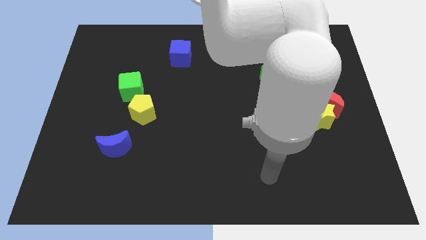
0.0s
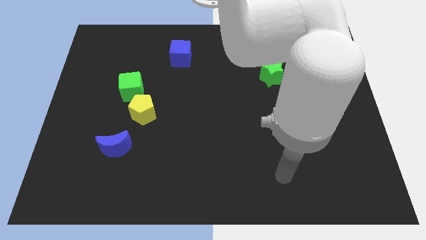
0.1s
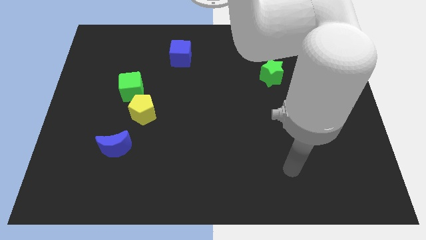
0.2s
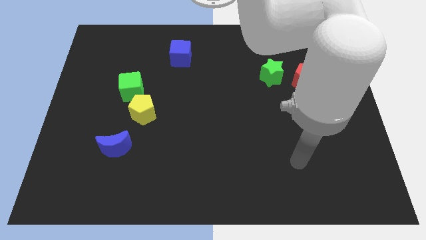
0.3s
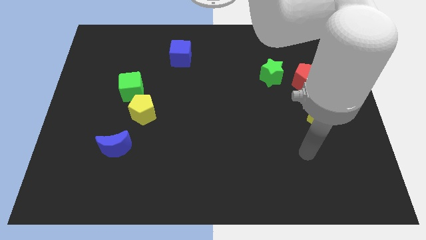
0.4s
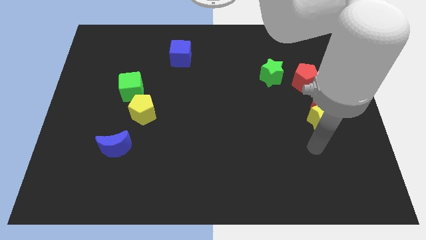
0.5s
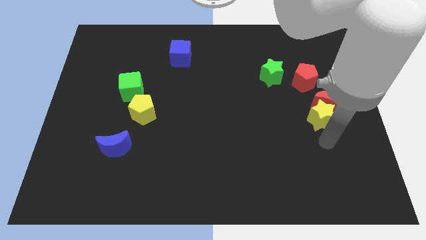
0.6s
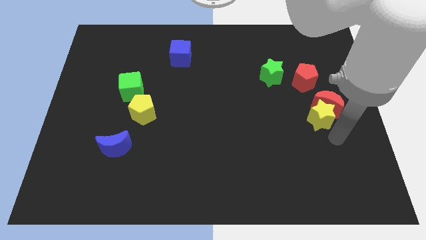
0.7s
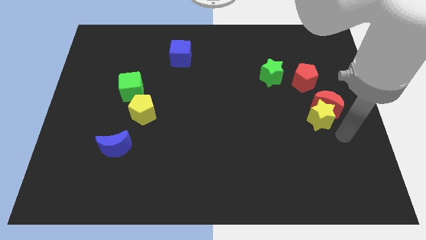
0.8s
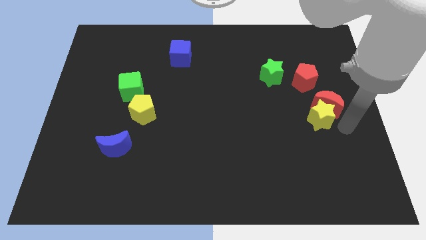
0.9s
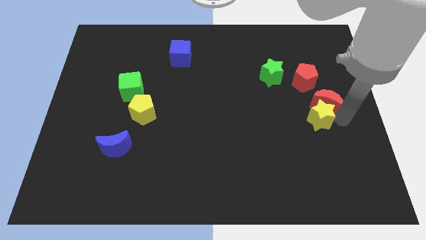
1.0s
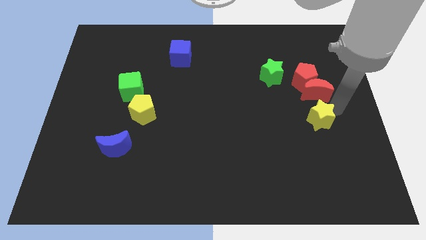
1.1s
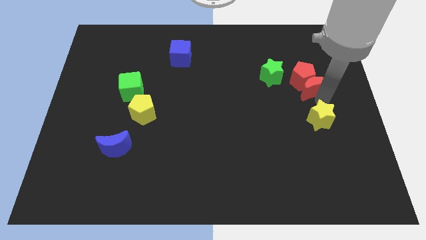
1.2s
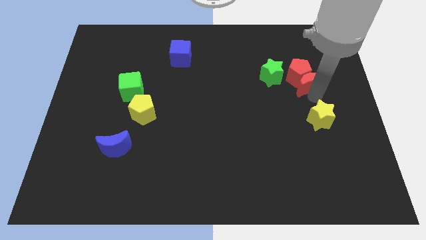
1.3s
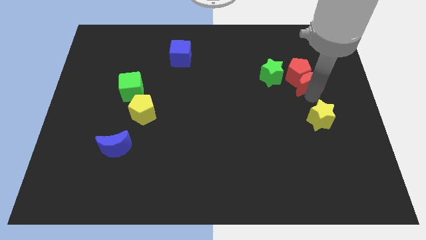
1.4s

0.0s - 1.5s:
pull the yellow star apart from the red moon

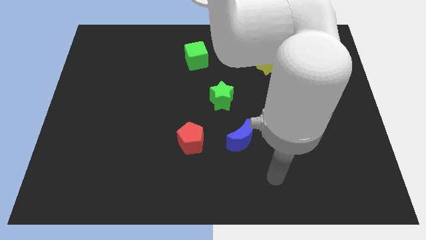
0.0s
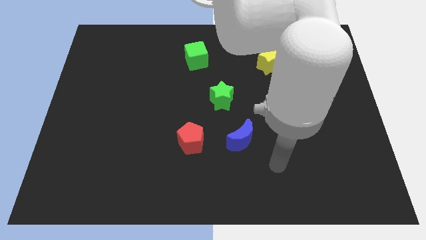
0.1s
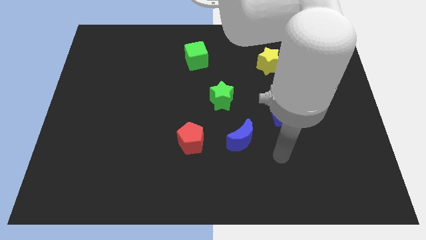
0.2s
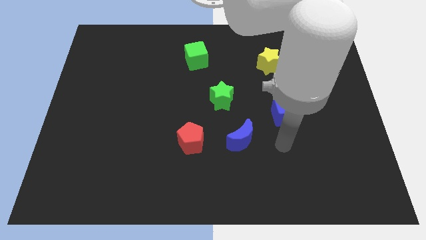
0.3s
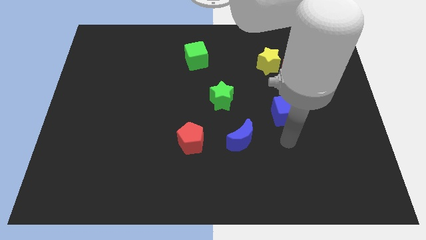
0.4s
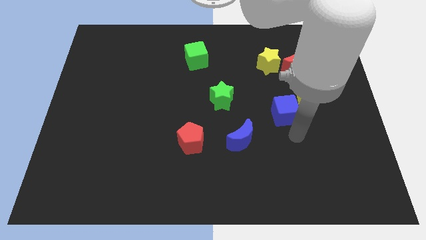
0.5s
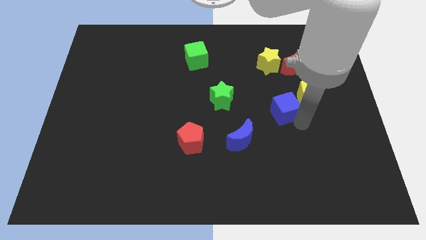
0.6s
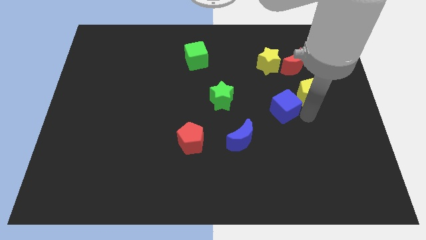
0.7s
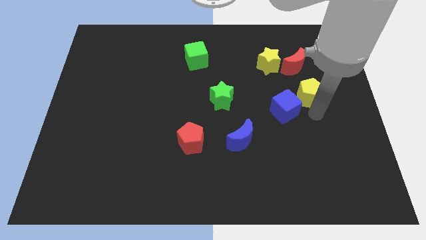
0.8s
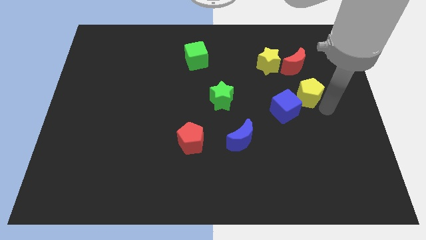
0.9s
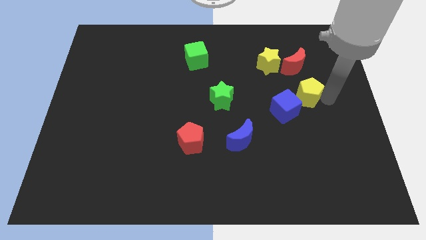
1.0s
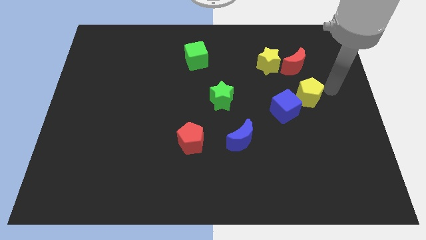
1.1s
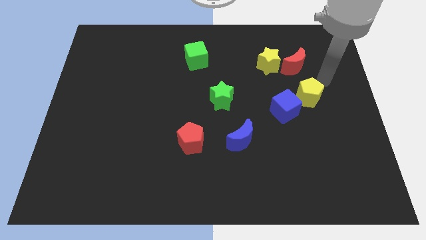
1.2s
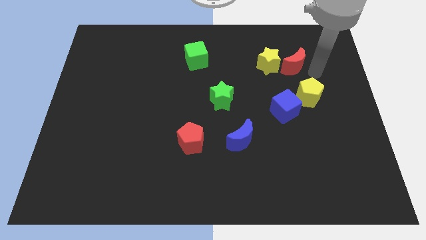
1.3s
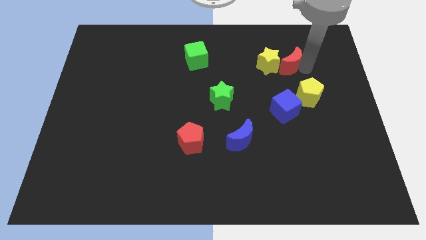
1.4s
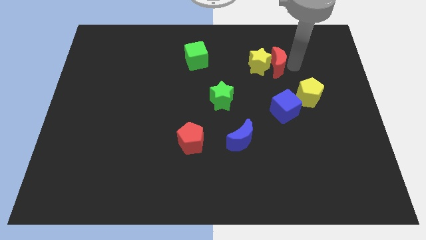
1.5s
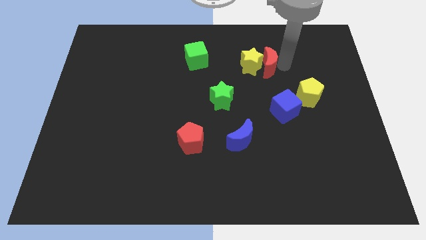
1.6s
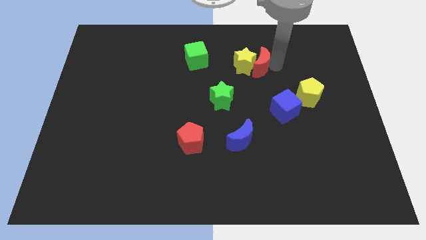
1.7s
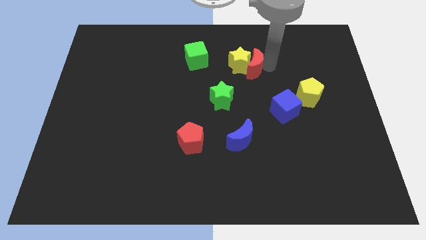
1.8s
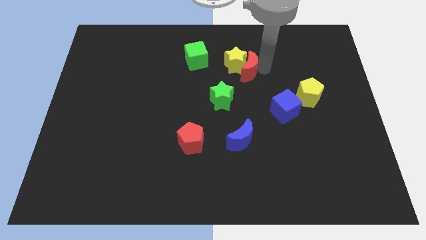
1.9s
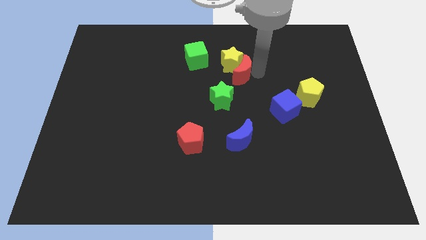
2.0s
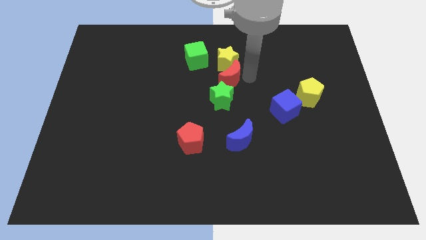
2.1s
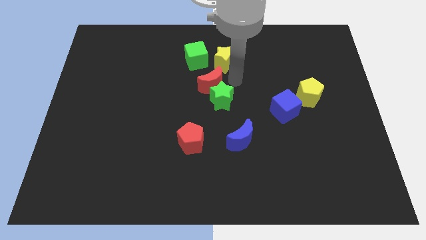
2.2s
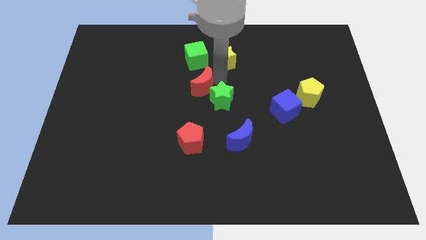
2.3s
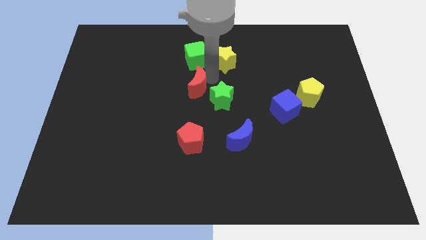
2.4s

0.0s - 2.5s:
move the yellow star away from the red moon

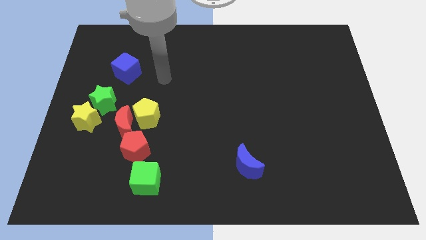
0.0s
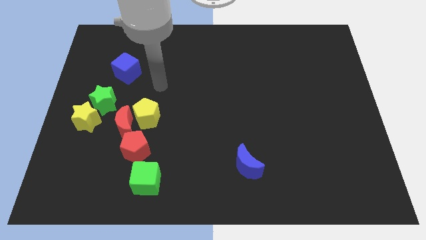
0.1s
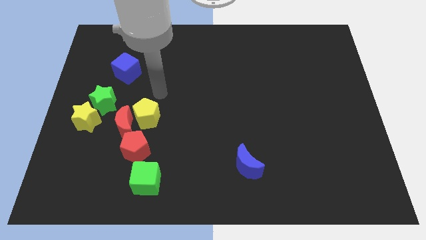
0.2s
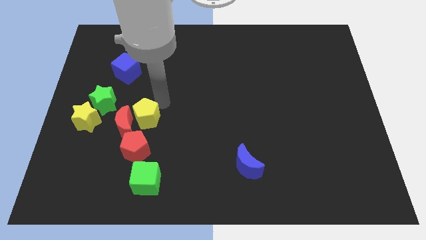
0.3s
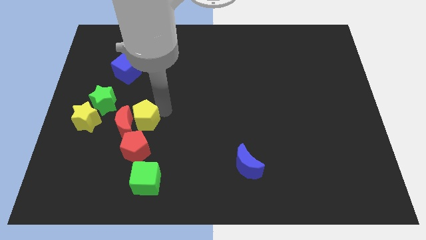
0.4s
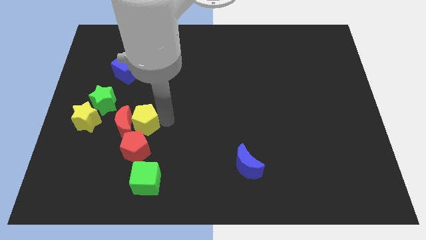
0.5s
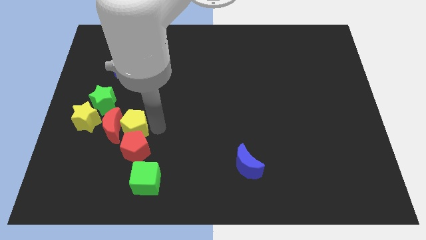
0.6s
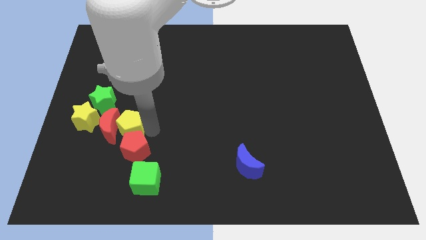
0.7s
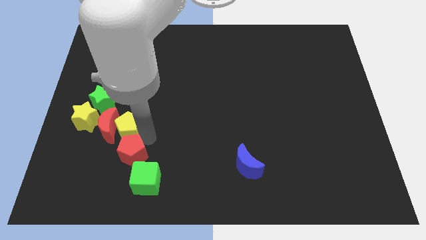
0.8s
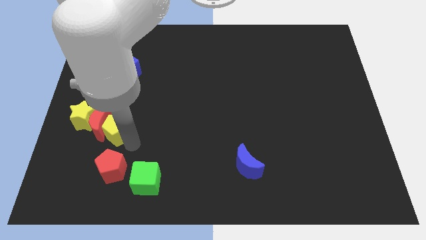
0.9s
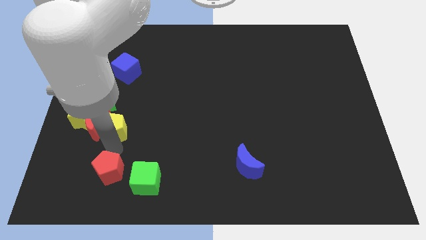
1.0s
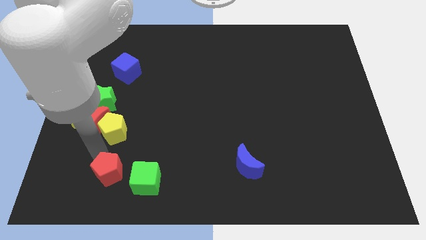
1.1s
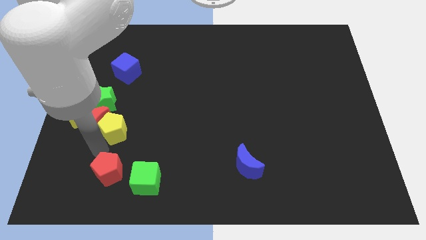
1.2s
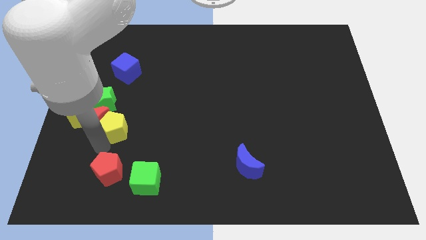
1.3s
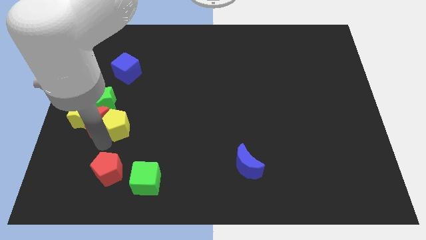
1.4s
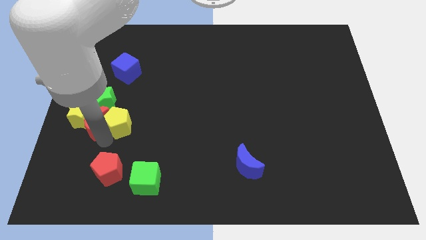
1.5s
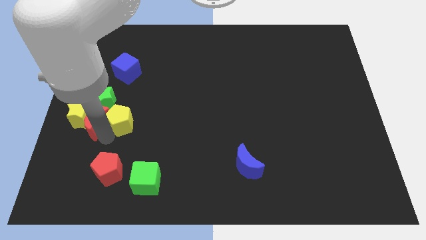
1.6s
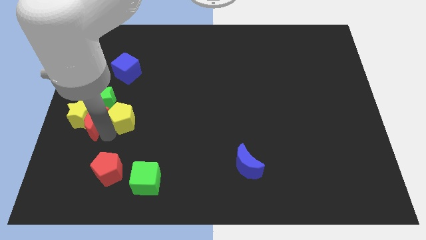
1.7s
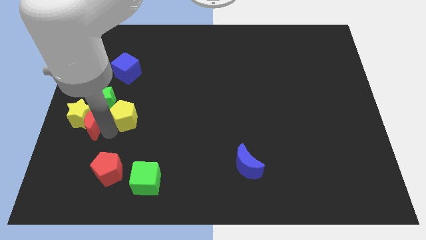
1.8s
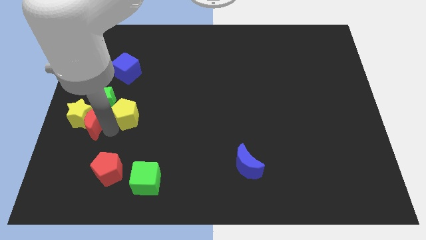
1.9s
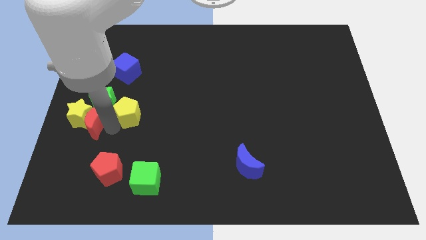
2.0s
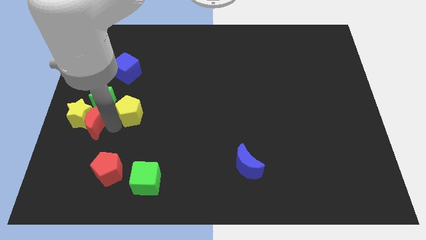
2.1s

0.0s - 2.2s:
pull the yellow pentagon apart from the red moon and red pentagon

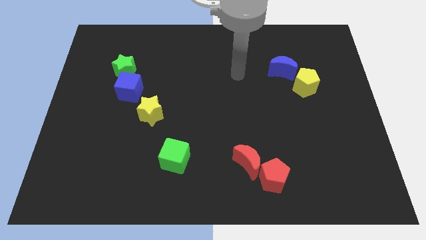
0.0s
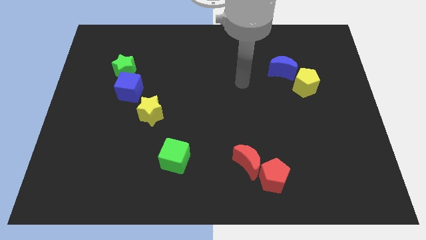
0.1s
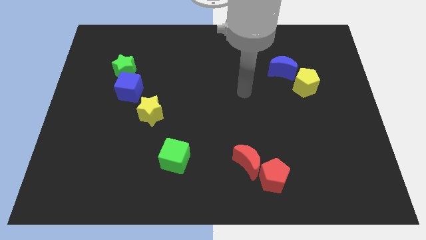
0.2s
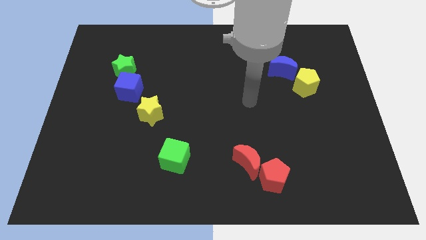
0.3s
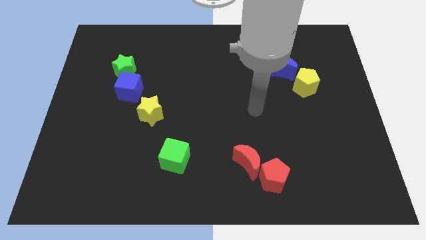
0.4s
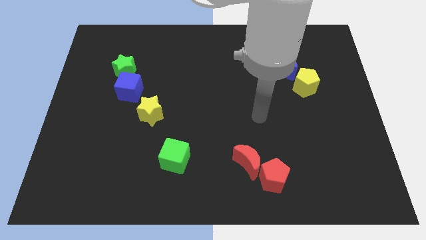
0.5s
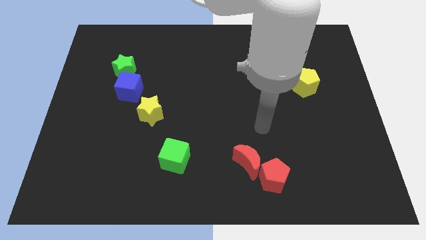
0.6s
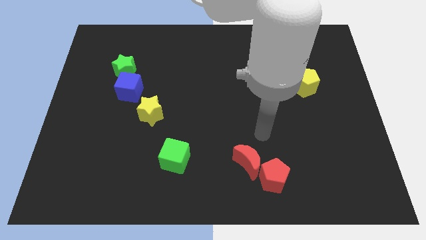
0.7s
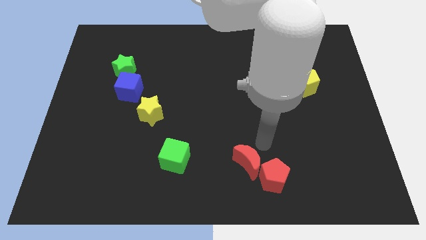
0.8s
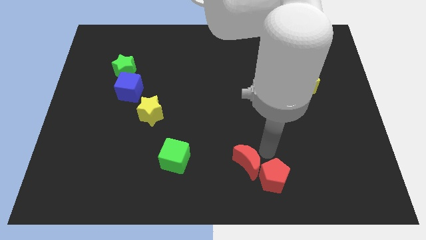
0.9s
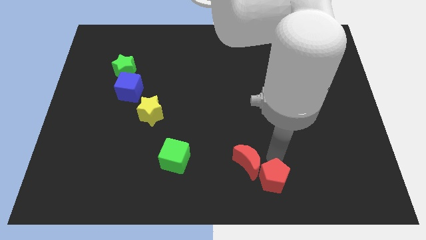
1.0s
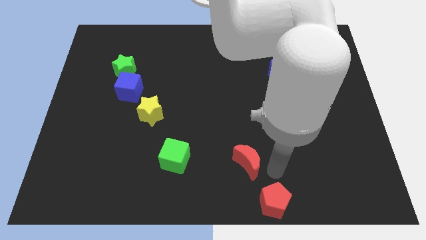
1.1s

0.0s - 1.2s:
move the red moon away from the red pentagon

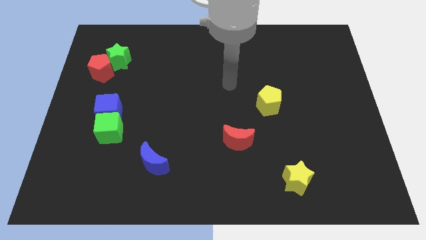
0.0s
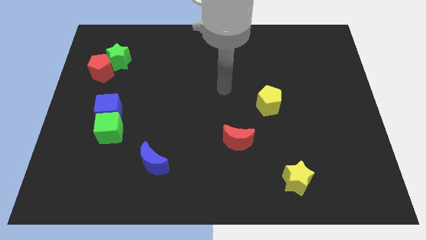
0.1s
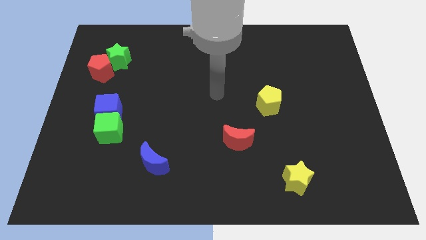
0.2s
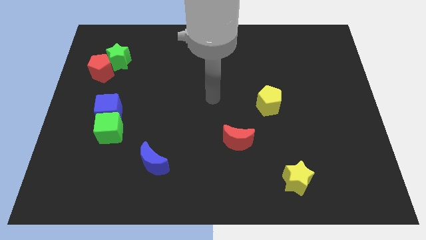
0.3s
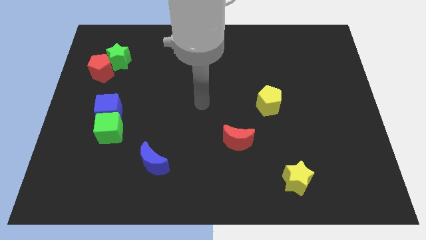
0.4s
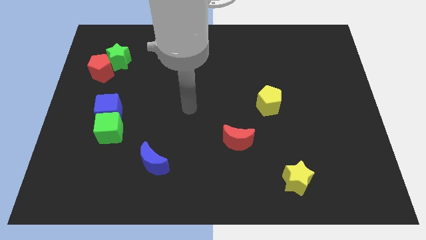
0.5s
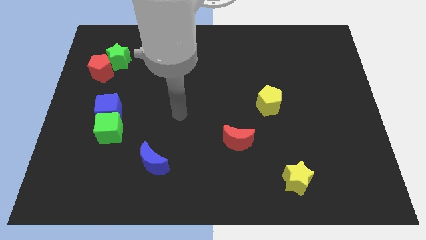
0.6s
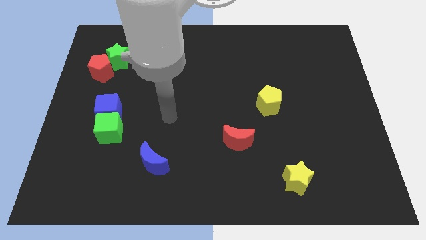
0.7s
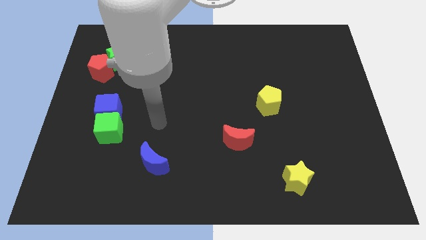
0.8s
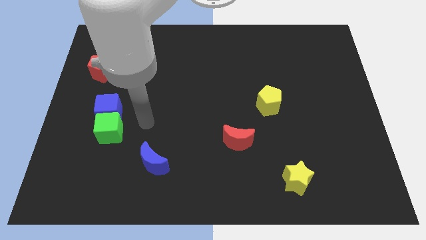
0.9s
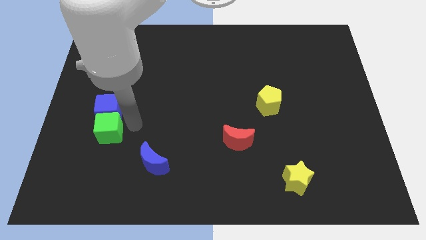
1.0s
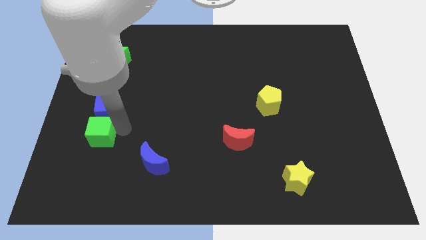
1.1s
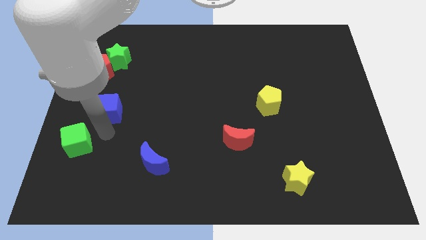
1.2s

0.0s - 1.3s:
separate the blue cube from the green cube

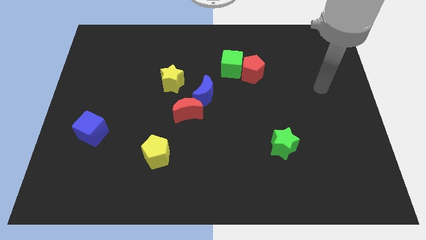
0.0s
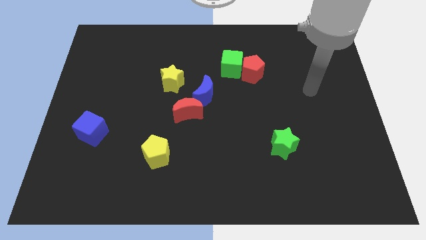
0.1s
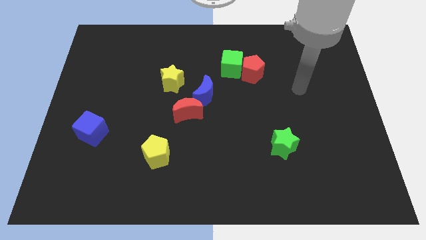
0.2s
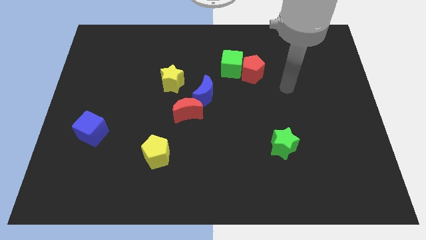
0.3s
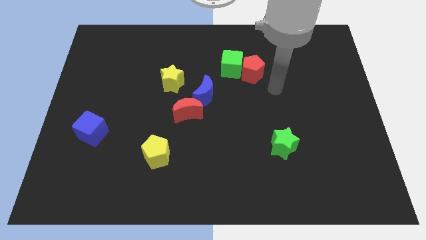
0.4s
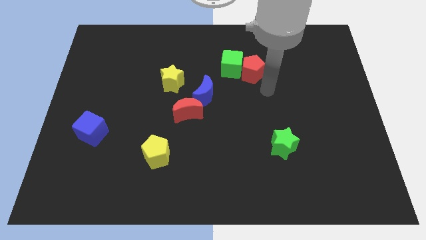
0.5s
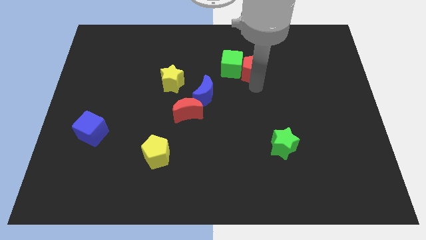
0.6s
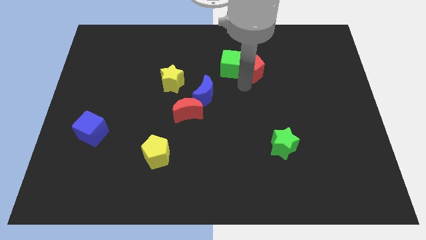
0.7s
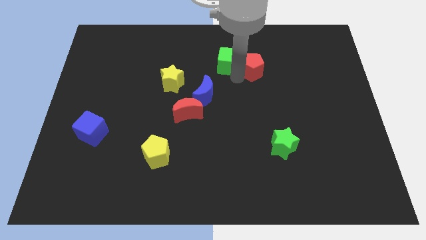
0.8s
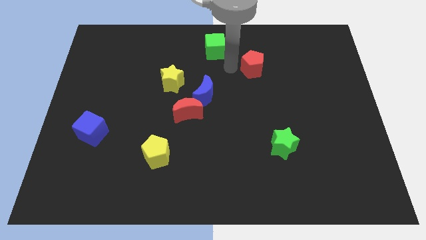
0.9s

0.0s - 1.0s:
move the red pentagon away from the green cube
